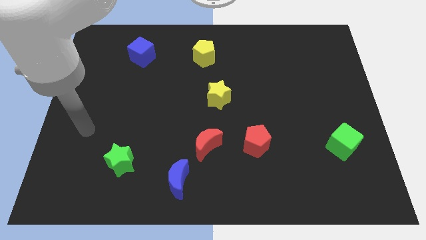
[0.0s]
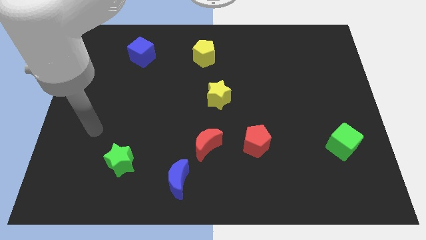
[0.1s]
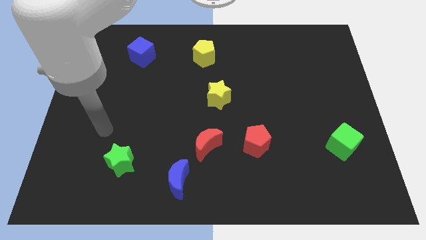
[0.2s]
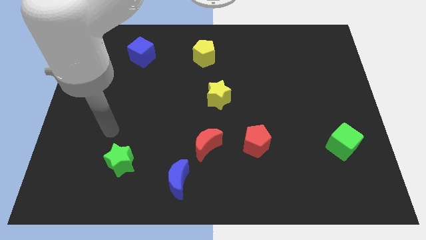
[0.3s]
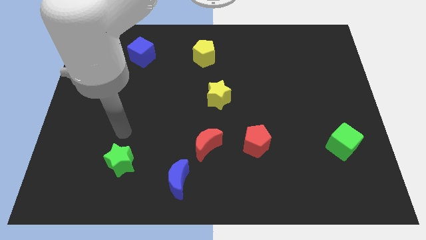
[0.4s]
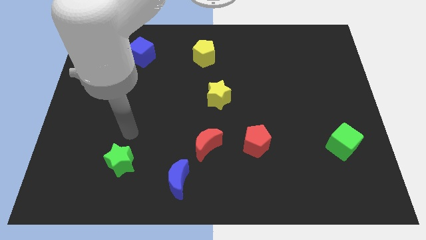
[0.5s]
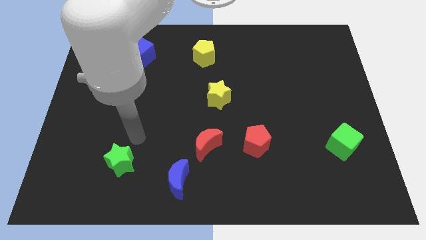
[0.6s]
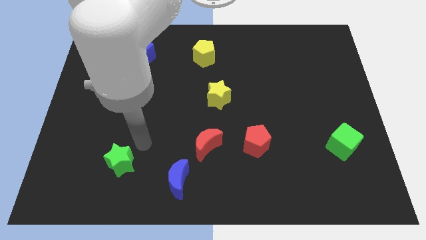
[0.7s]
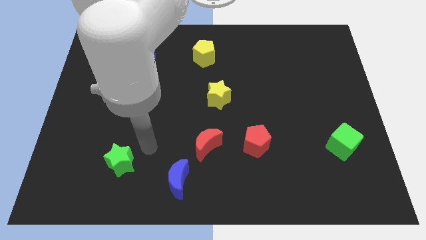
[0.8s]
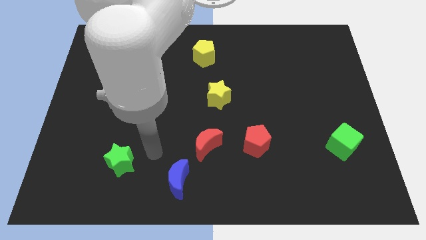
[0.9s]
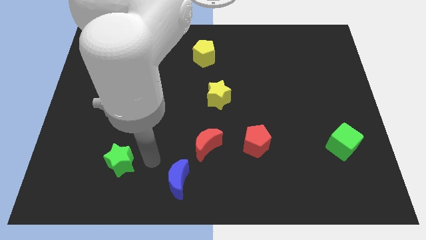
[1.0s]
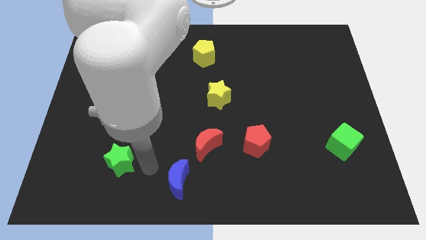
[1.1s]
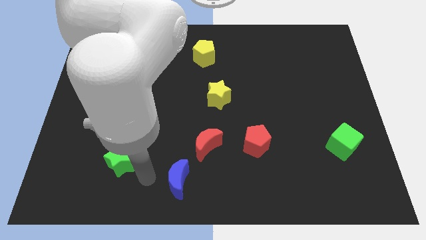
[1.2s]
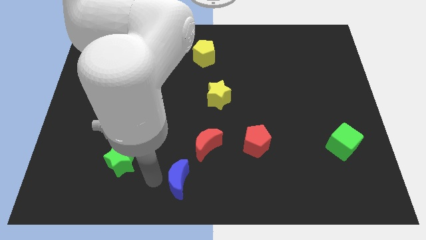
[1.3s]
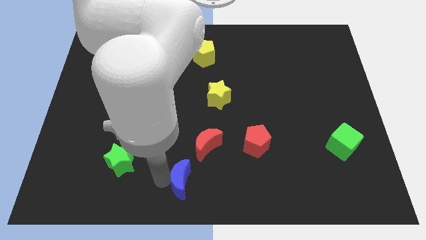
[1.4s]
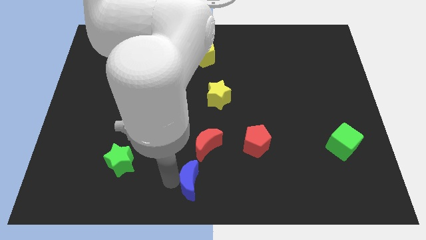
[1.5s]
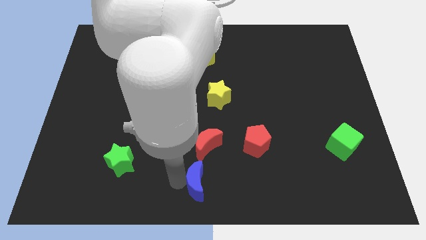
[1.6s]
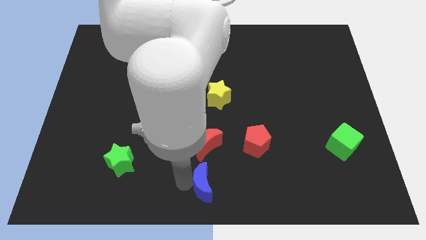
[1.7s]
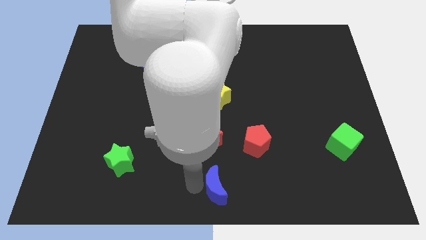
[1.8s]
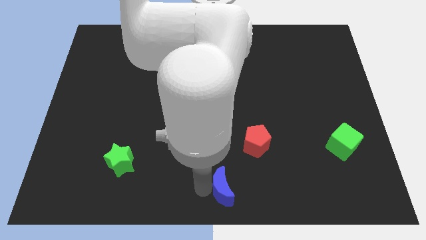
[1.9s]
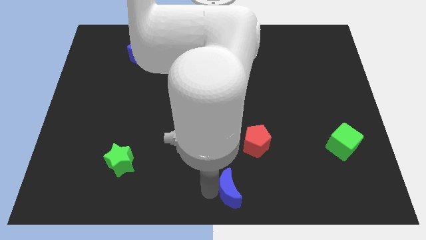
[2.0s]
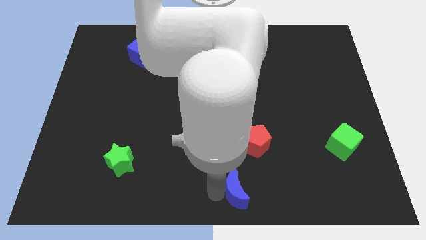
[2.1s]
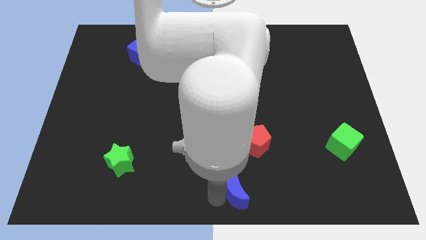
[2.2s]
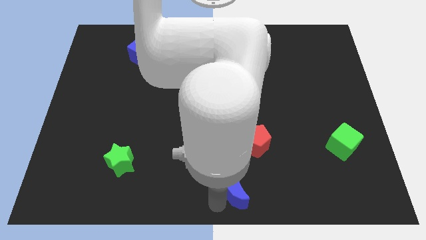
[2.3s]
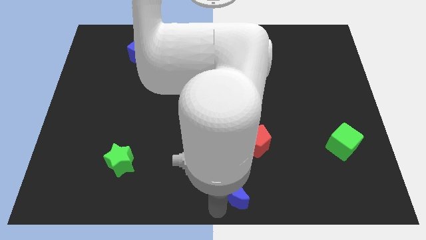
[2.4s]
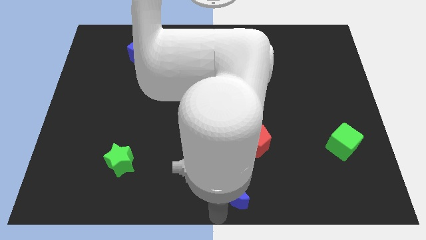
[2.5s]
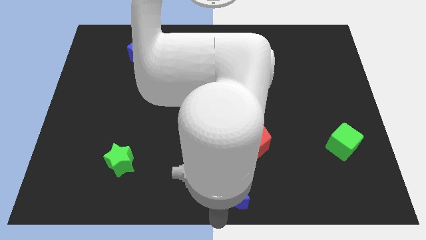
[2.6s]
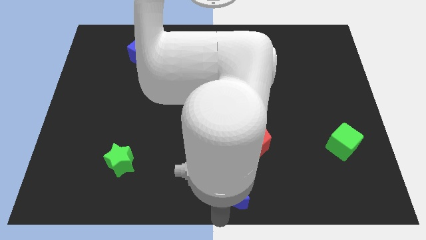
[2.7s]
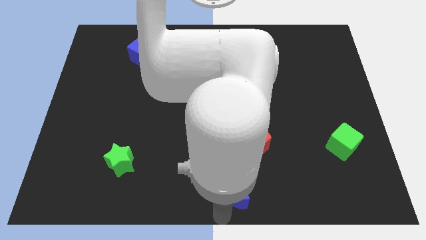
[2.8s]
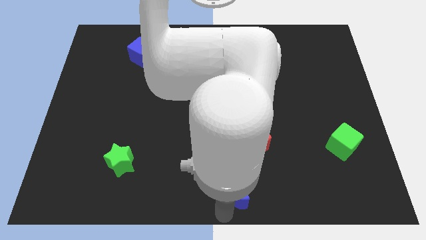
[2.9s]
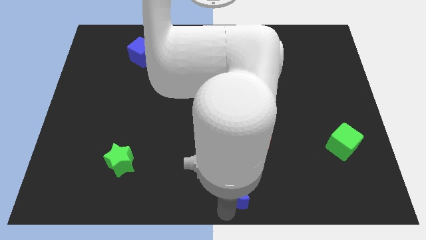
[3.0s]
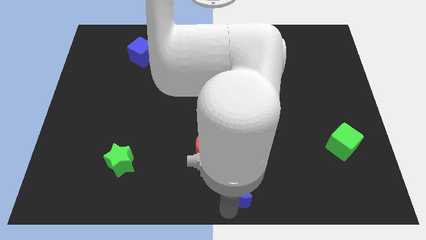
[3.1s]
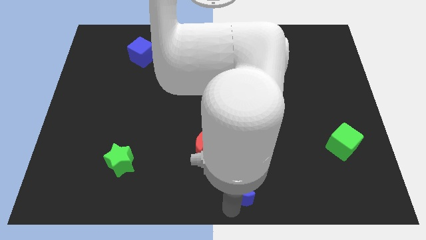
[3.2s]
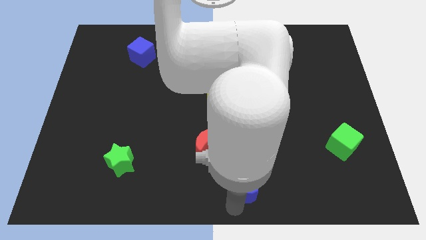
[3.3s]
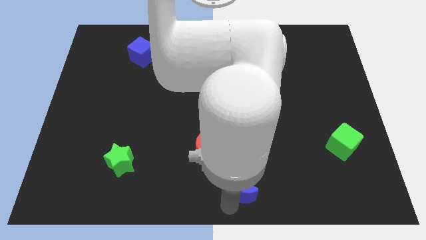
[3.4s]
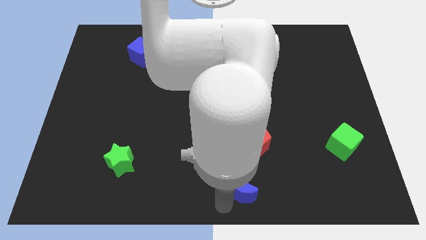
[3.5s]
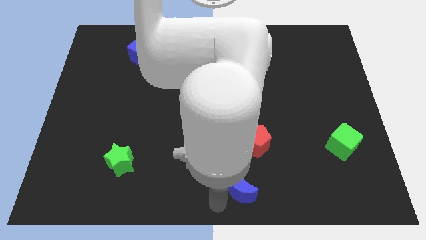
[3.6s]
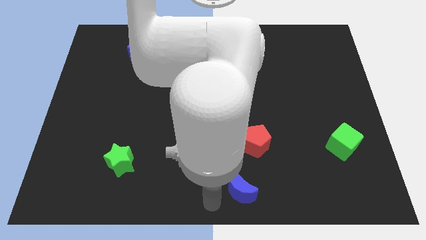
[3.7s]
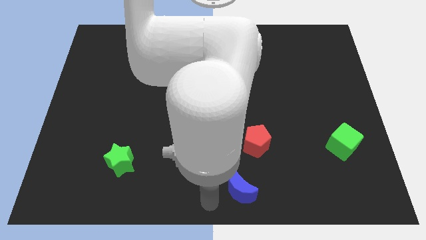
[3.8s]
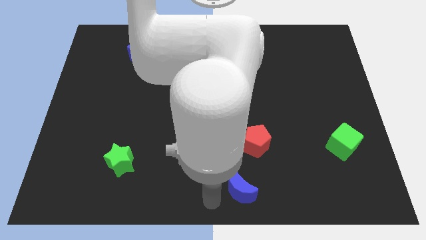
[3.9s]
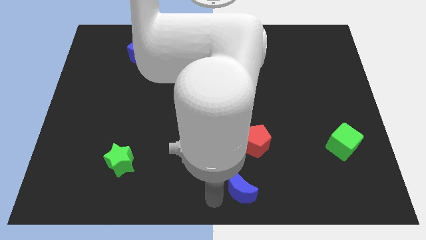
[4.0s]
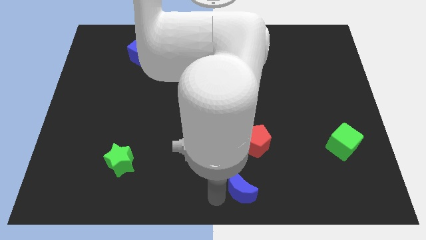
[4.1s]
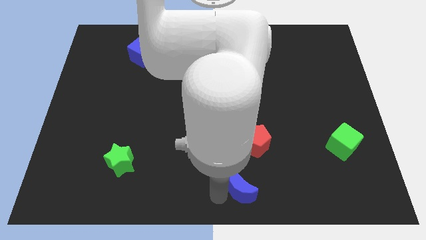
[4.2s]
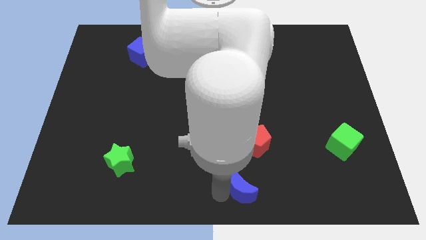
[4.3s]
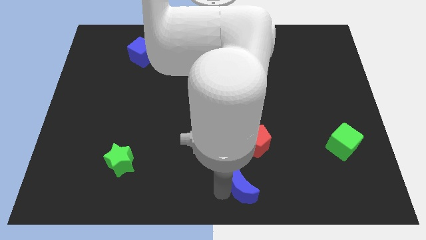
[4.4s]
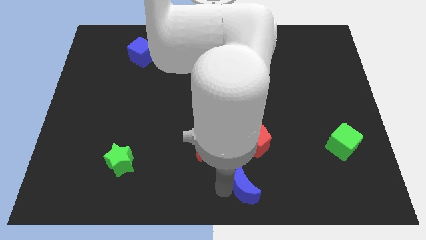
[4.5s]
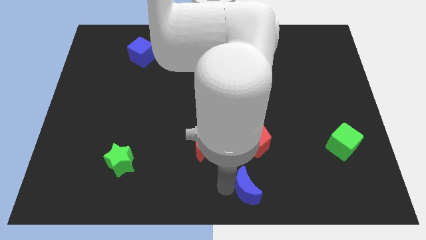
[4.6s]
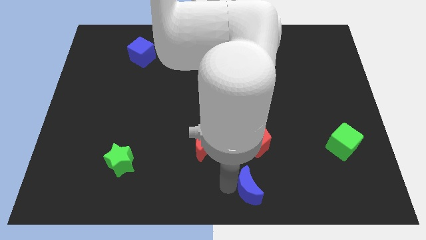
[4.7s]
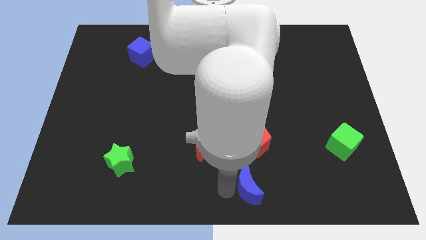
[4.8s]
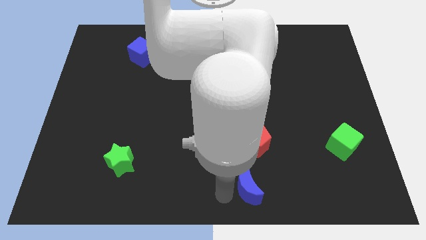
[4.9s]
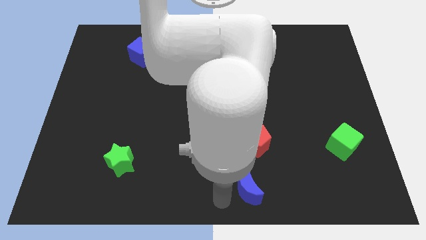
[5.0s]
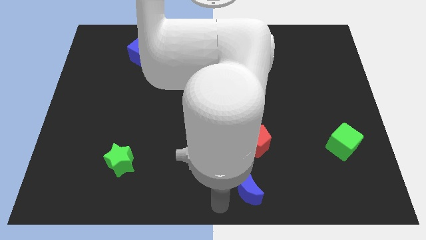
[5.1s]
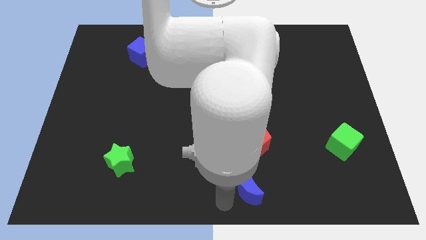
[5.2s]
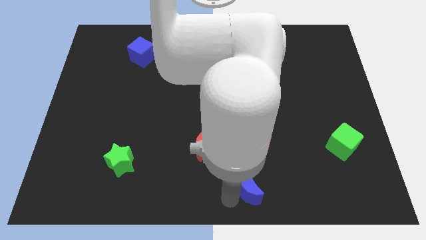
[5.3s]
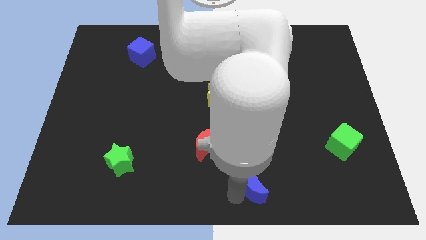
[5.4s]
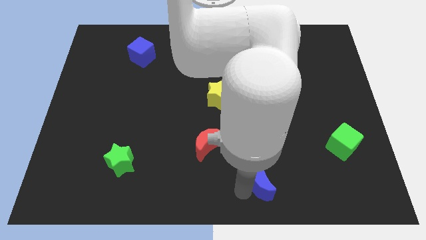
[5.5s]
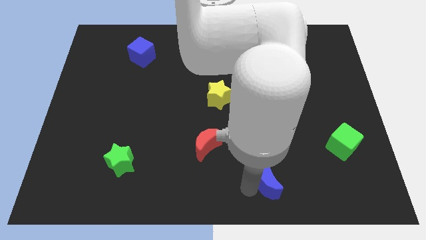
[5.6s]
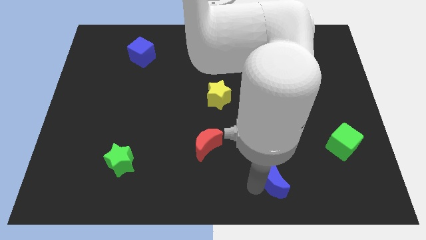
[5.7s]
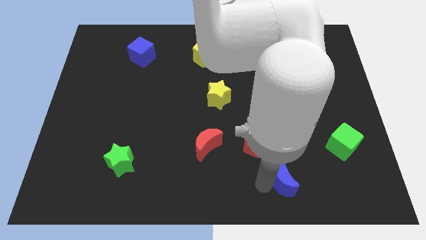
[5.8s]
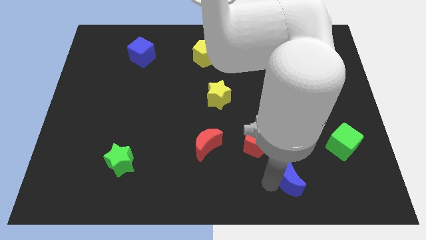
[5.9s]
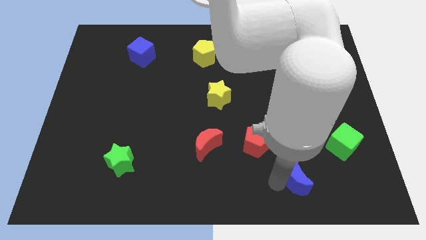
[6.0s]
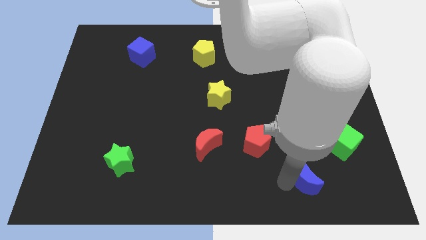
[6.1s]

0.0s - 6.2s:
push the blue moon to the bottom left side of the green cube

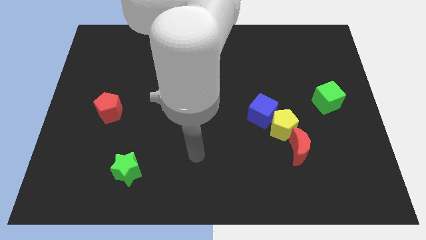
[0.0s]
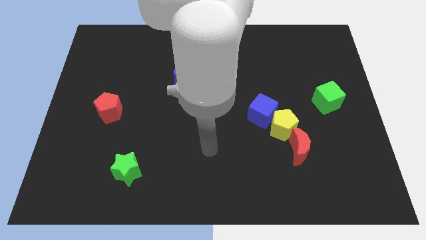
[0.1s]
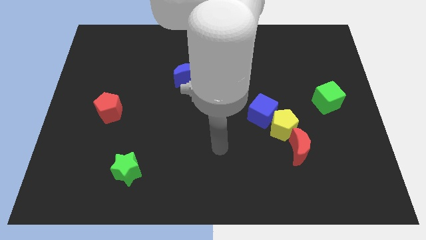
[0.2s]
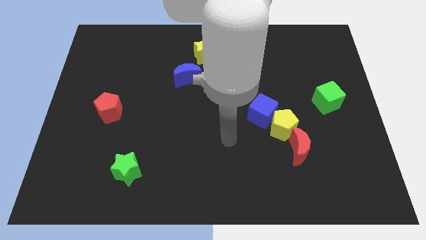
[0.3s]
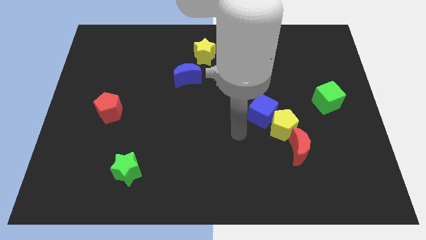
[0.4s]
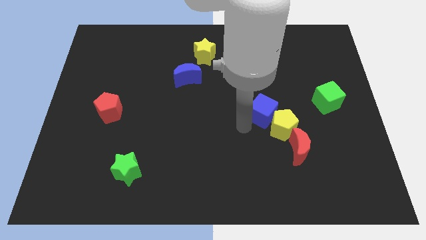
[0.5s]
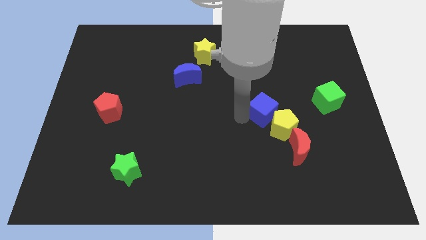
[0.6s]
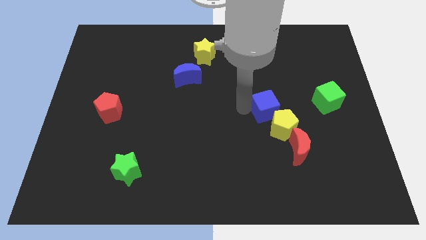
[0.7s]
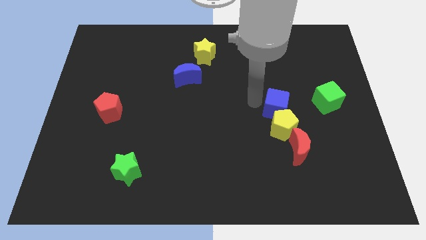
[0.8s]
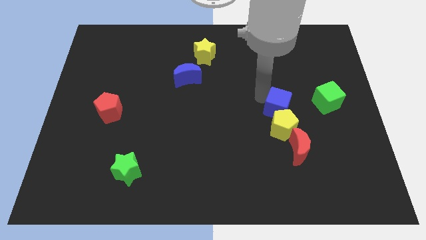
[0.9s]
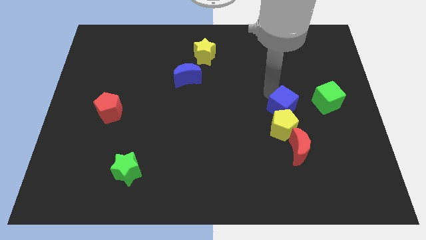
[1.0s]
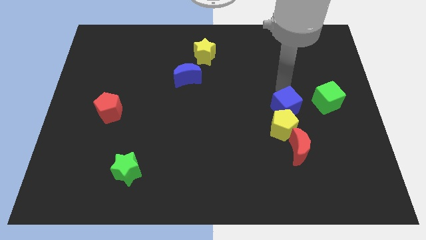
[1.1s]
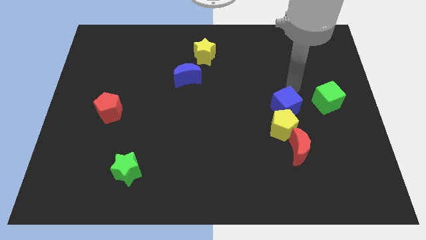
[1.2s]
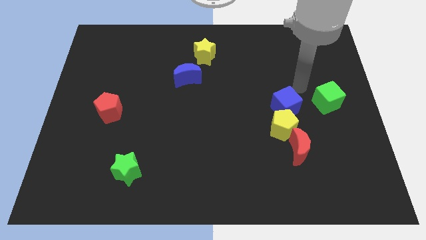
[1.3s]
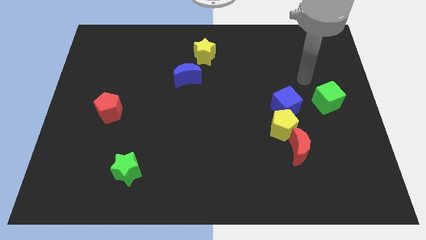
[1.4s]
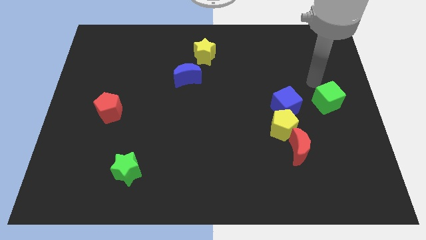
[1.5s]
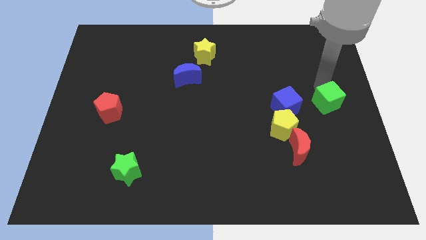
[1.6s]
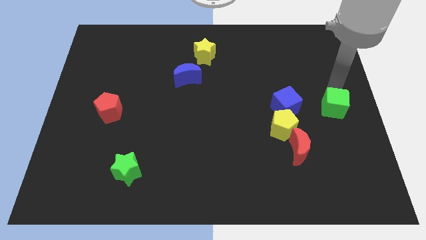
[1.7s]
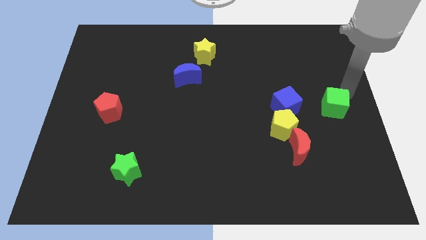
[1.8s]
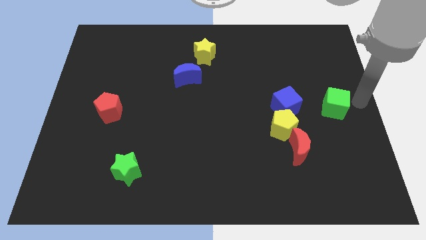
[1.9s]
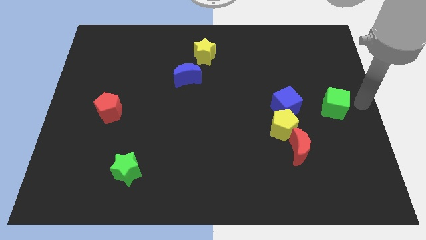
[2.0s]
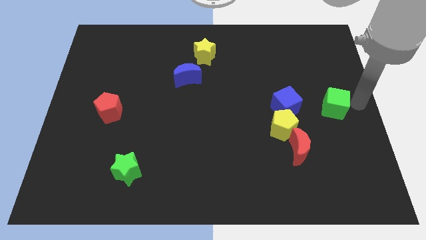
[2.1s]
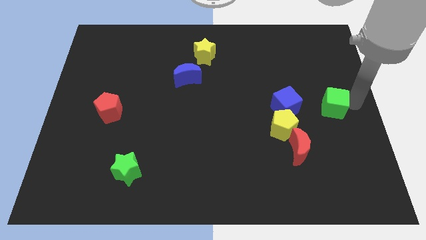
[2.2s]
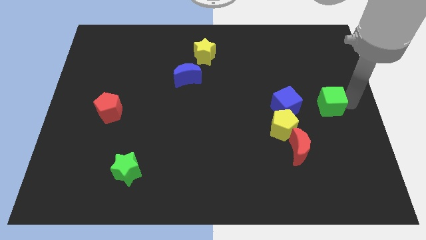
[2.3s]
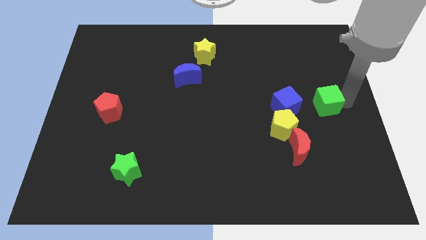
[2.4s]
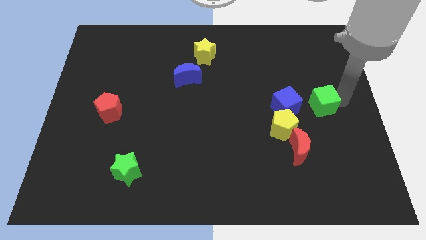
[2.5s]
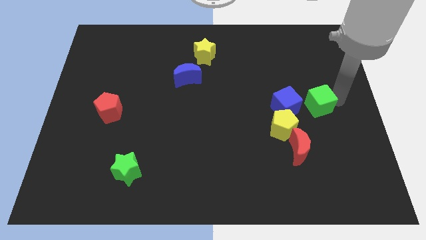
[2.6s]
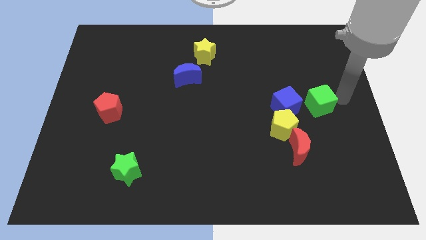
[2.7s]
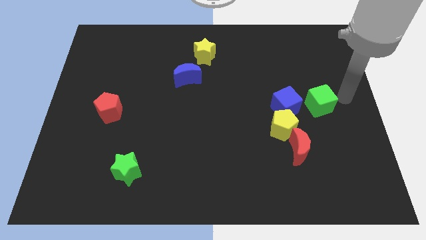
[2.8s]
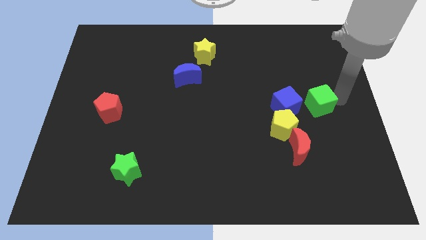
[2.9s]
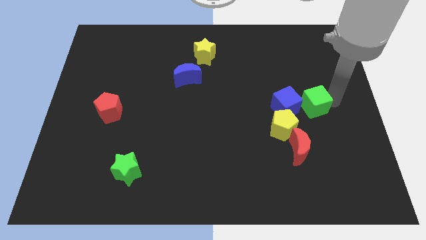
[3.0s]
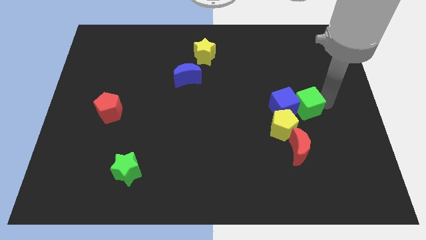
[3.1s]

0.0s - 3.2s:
slide the green cube above the red moon
